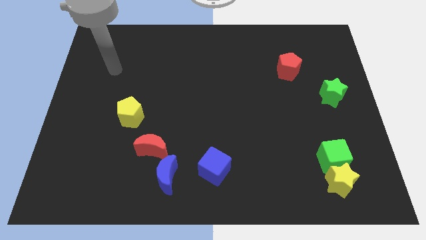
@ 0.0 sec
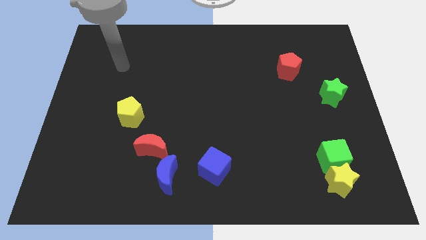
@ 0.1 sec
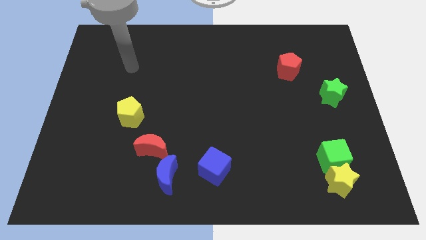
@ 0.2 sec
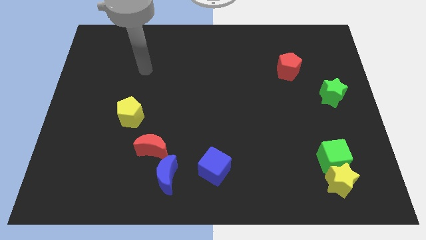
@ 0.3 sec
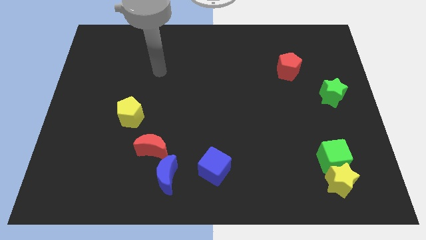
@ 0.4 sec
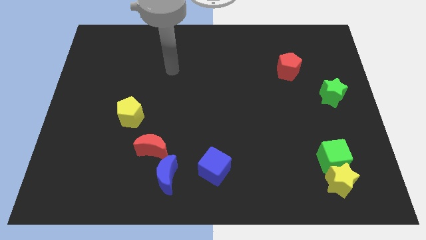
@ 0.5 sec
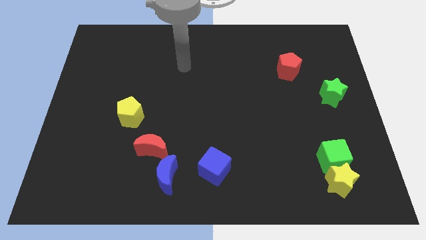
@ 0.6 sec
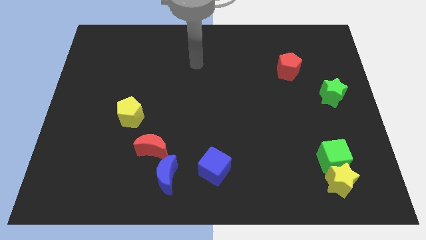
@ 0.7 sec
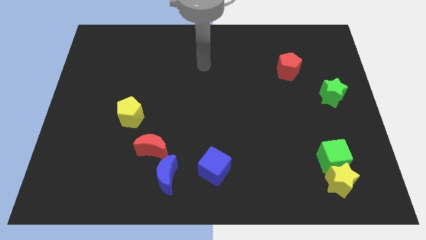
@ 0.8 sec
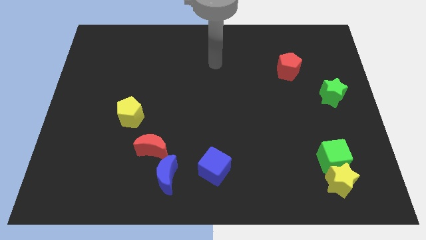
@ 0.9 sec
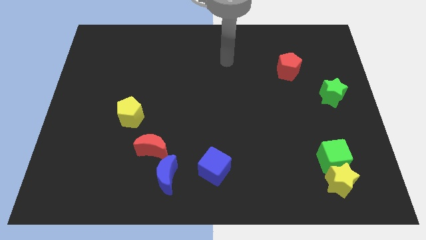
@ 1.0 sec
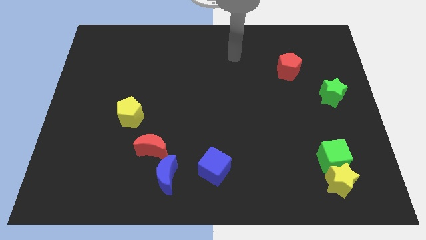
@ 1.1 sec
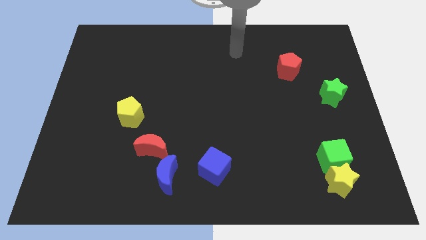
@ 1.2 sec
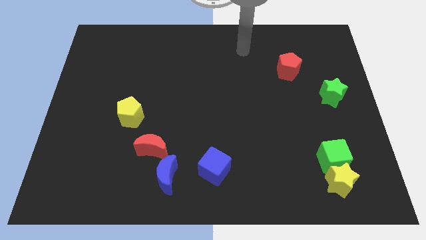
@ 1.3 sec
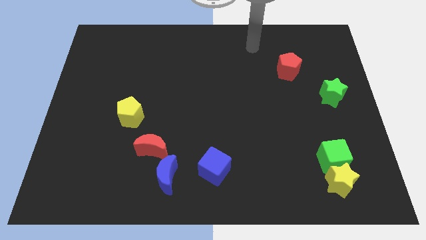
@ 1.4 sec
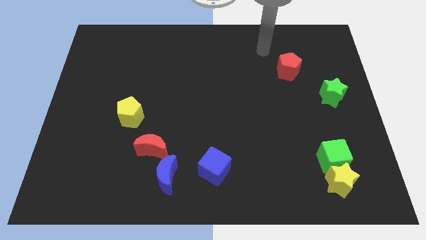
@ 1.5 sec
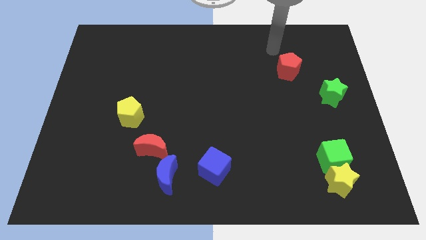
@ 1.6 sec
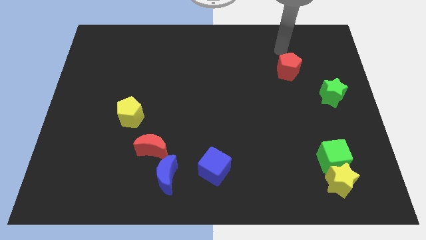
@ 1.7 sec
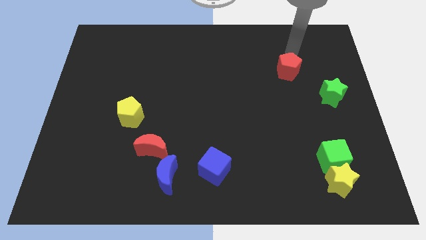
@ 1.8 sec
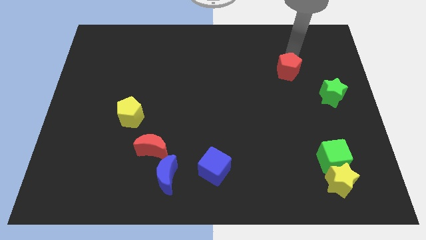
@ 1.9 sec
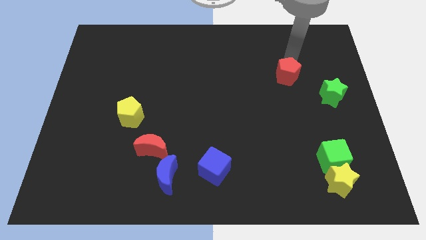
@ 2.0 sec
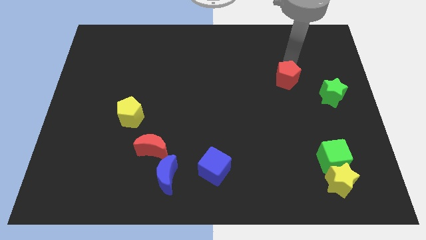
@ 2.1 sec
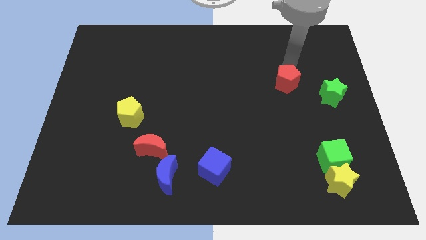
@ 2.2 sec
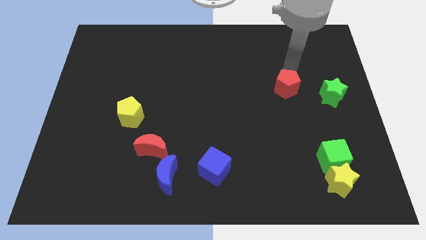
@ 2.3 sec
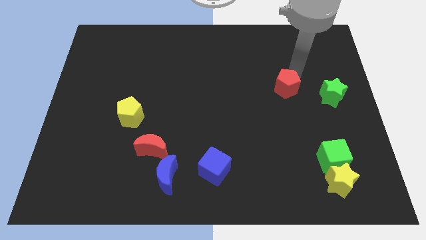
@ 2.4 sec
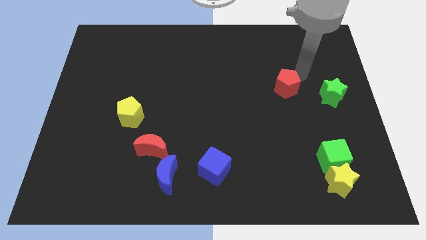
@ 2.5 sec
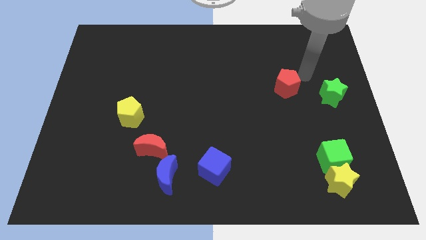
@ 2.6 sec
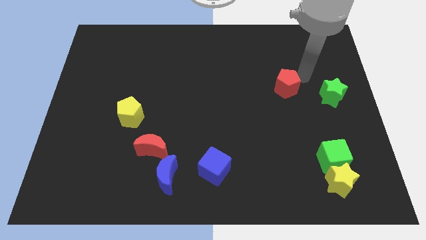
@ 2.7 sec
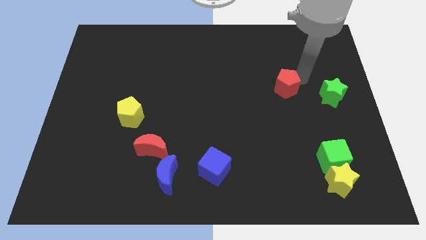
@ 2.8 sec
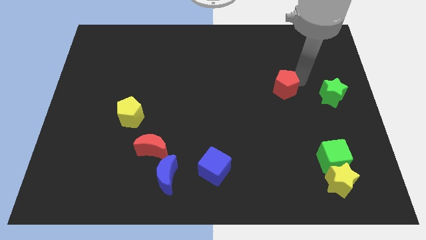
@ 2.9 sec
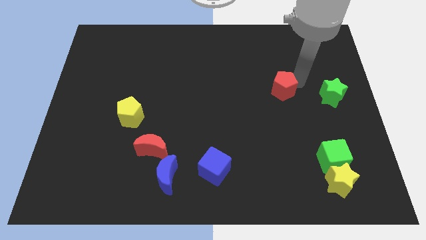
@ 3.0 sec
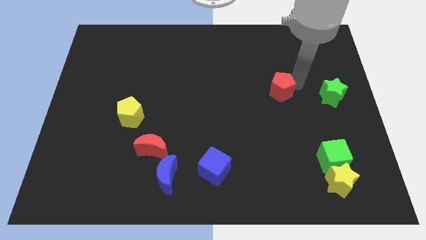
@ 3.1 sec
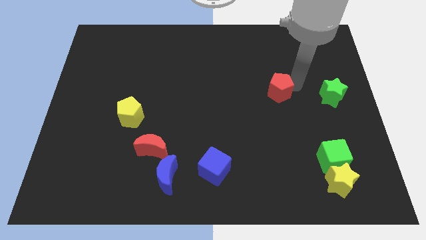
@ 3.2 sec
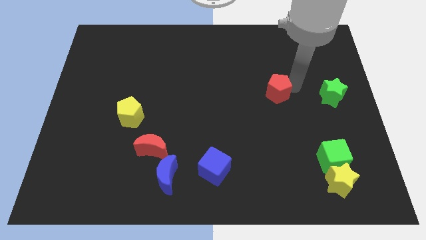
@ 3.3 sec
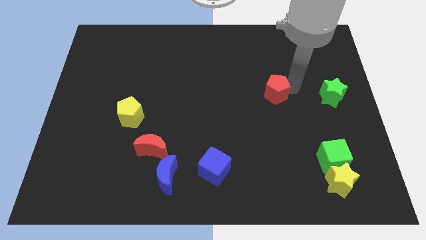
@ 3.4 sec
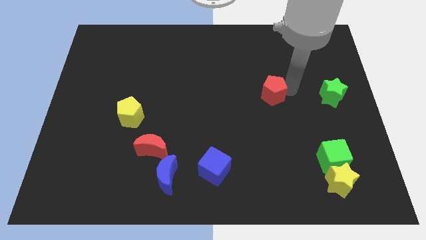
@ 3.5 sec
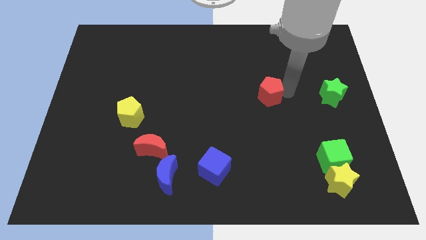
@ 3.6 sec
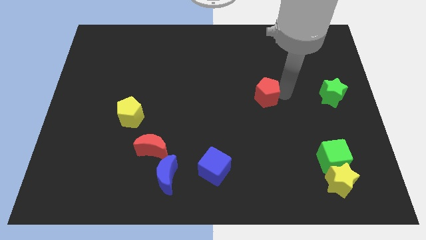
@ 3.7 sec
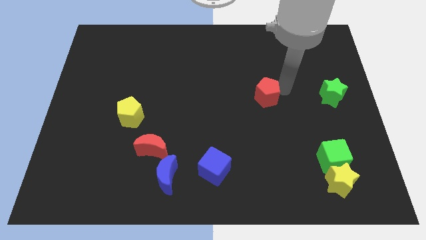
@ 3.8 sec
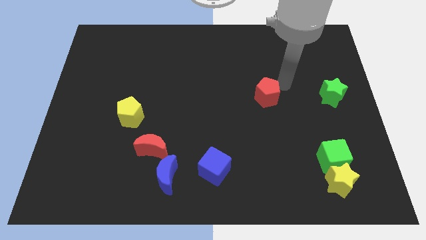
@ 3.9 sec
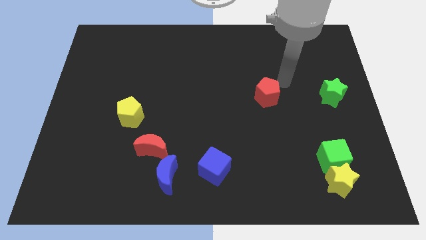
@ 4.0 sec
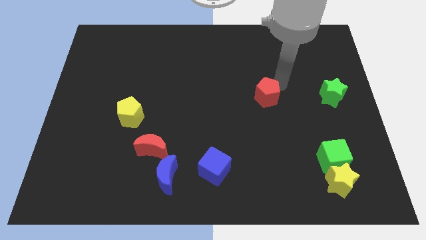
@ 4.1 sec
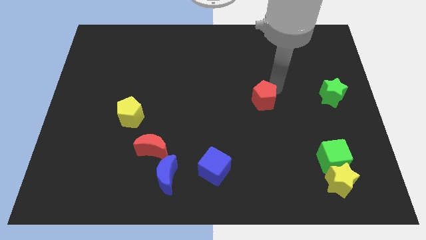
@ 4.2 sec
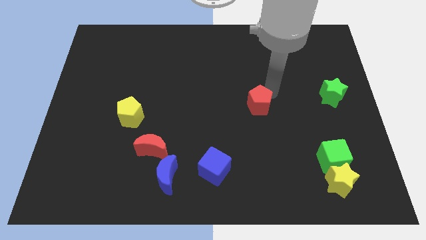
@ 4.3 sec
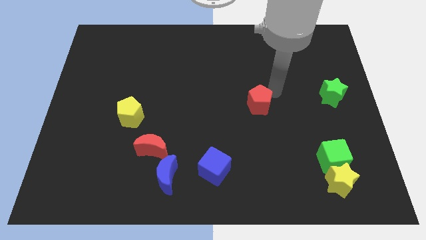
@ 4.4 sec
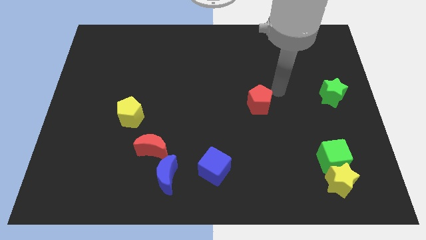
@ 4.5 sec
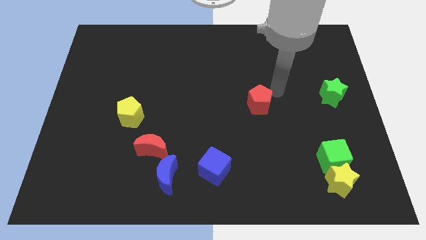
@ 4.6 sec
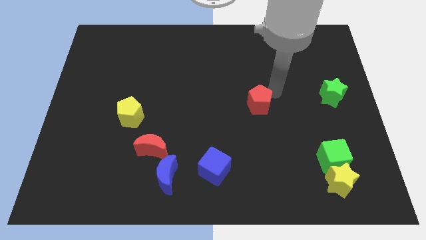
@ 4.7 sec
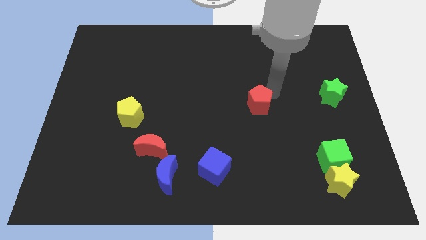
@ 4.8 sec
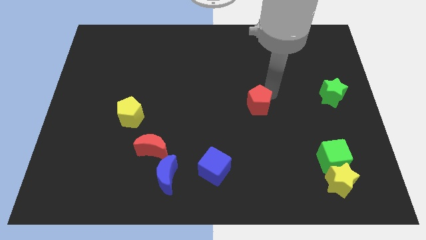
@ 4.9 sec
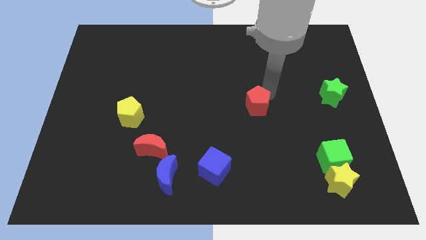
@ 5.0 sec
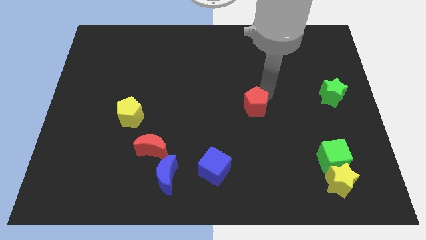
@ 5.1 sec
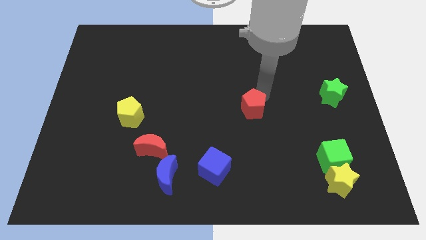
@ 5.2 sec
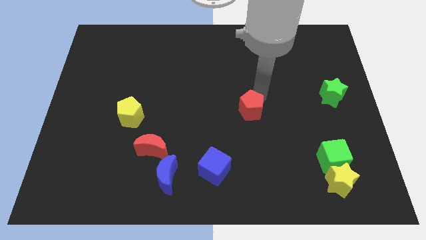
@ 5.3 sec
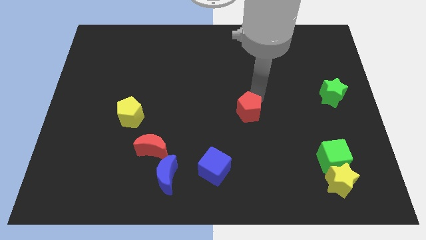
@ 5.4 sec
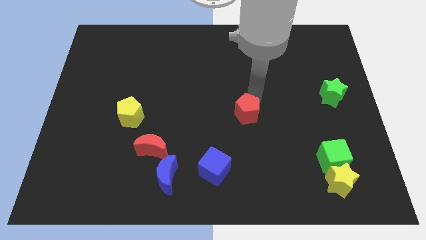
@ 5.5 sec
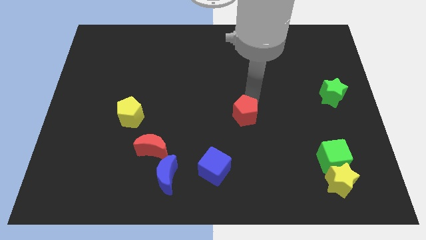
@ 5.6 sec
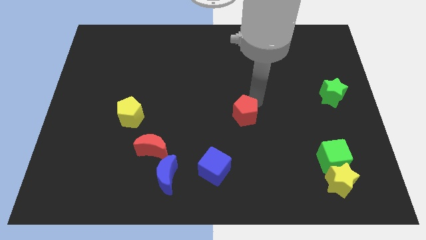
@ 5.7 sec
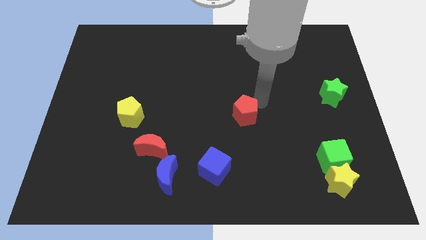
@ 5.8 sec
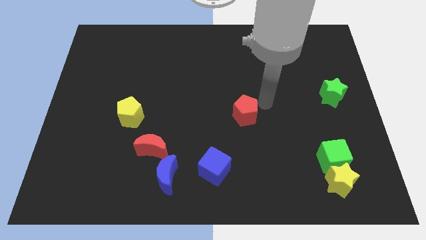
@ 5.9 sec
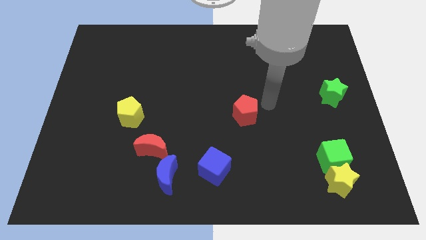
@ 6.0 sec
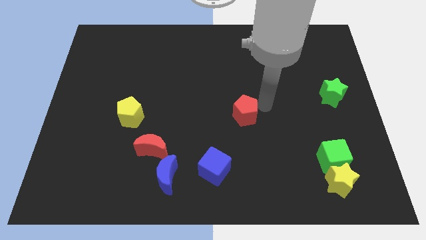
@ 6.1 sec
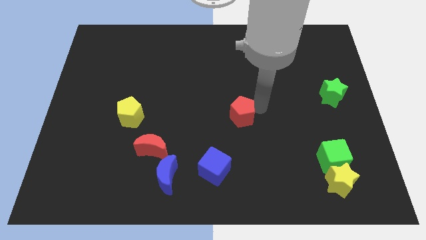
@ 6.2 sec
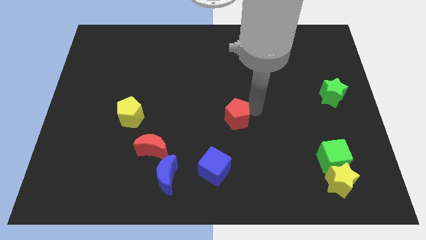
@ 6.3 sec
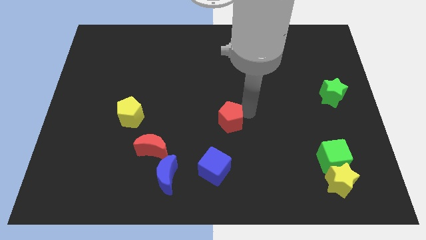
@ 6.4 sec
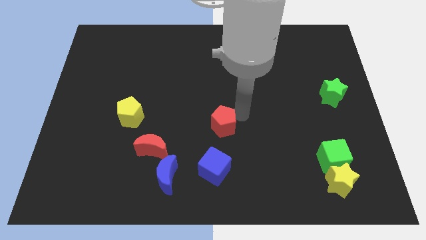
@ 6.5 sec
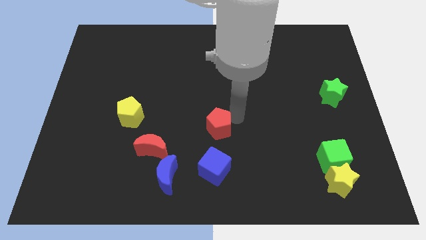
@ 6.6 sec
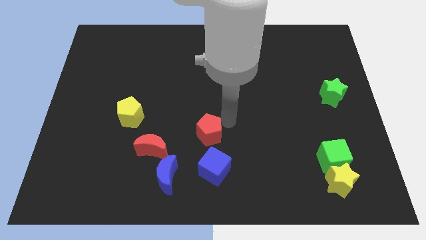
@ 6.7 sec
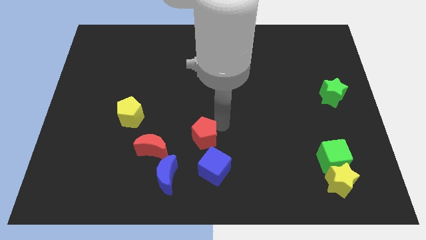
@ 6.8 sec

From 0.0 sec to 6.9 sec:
move the red pentagon to the top left of the blue cube
